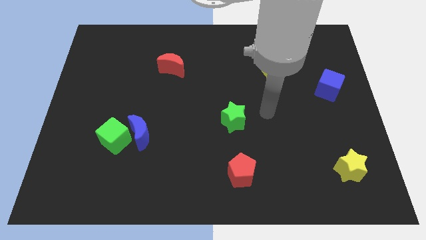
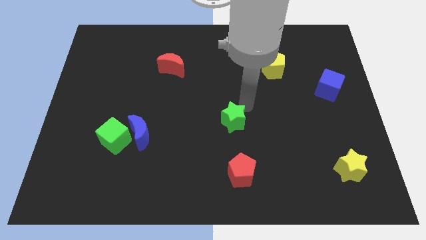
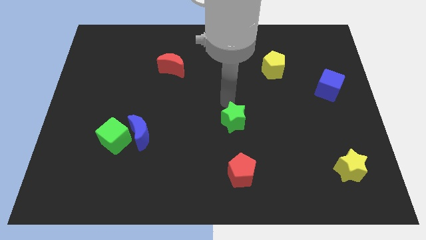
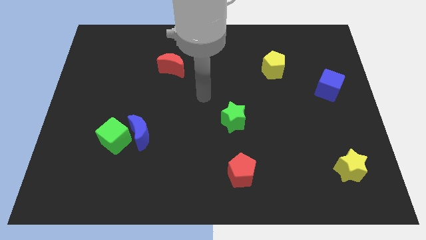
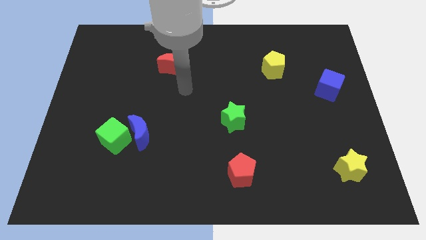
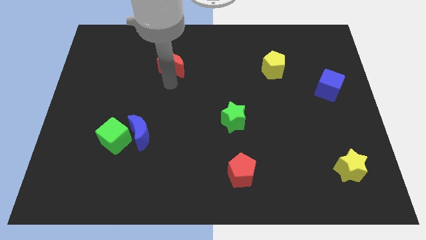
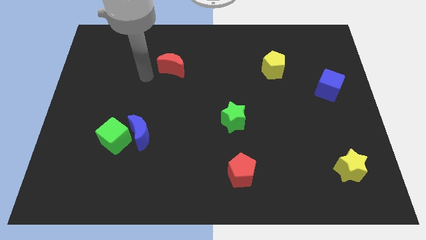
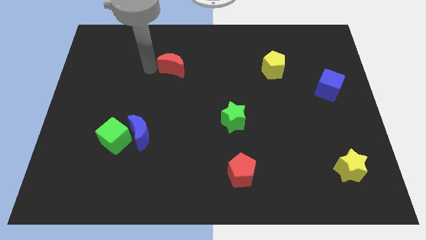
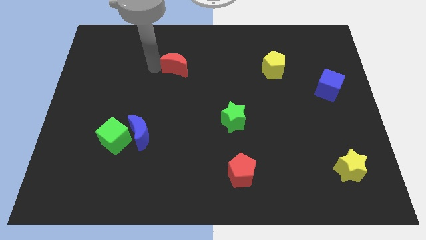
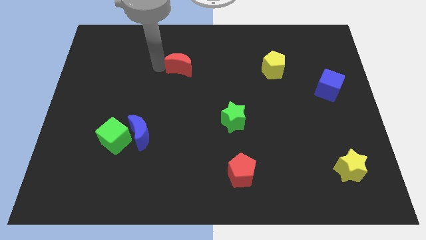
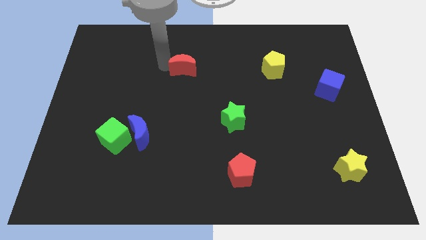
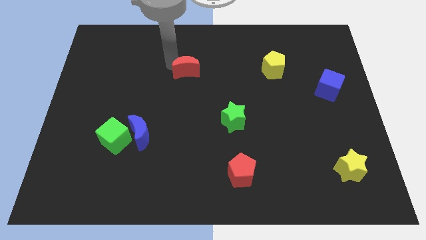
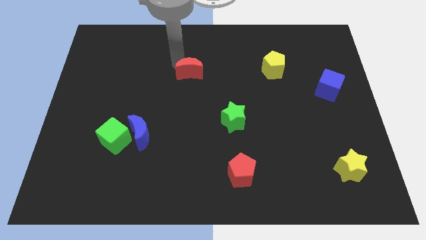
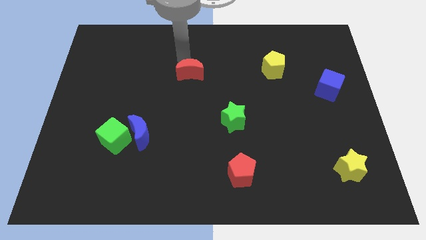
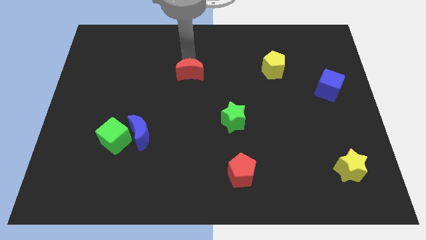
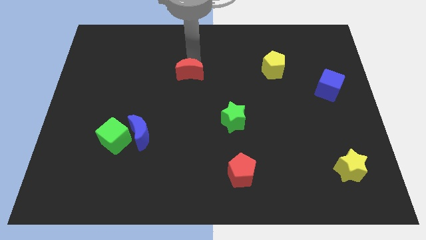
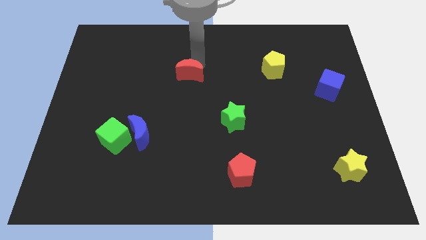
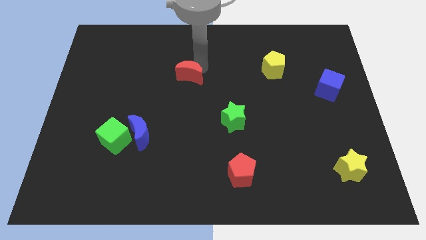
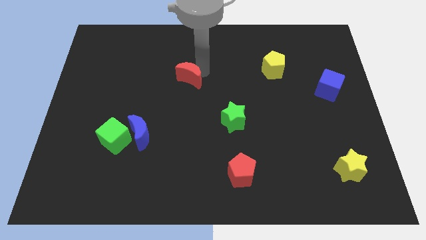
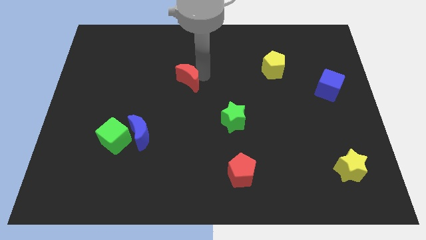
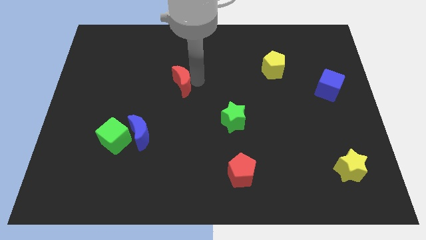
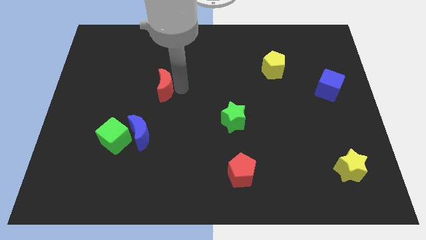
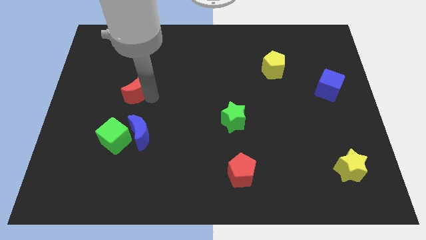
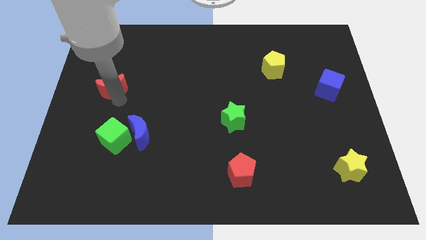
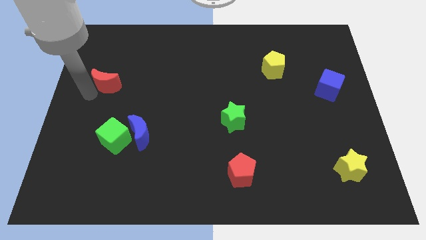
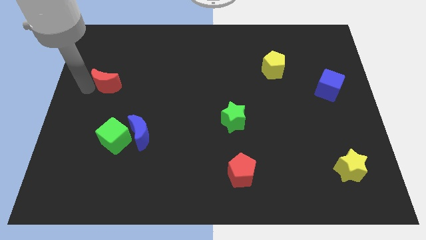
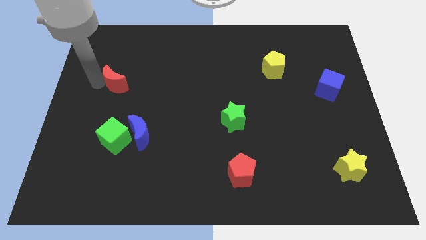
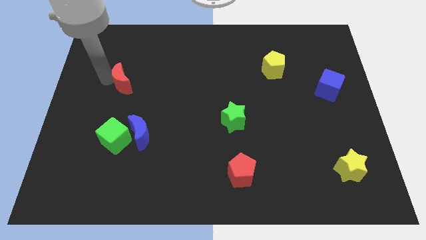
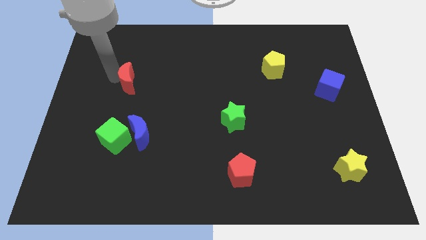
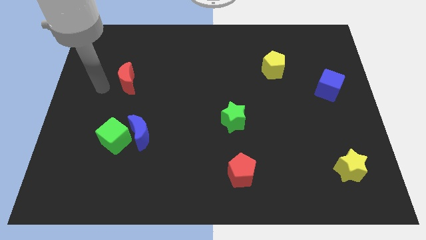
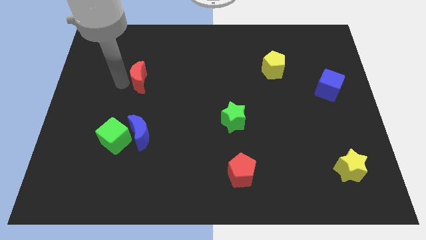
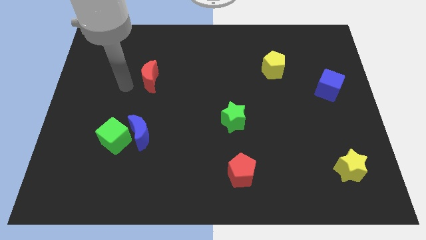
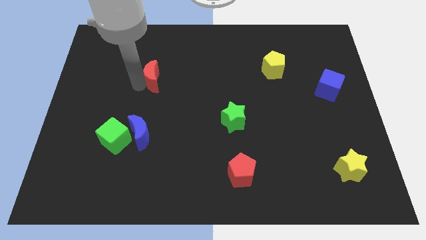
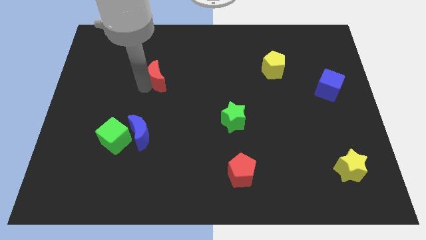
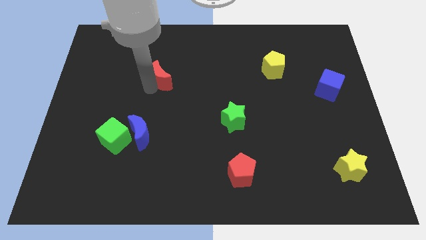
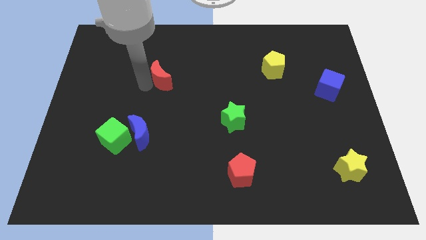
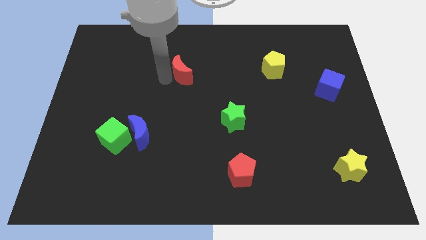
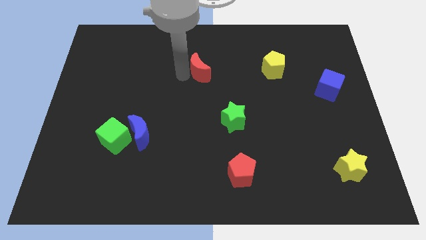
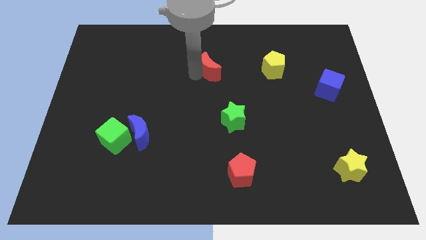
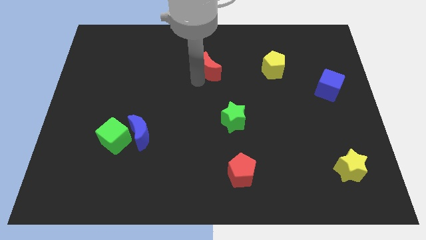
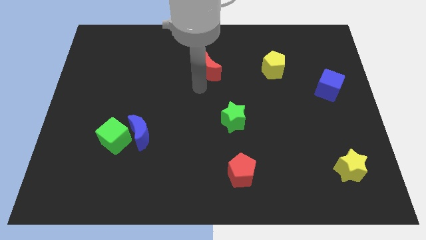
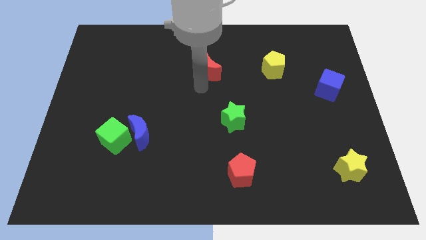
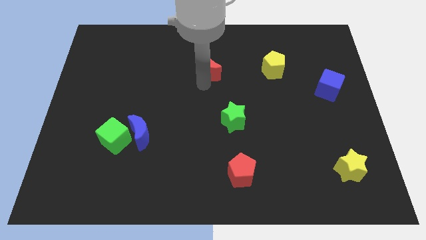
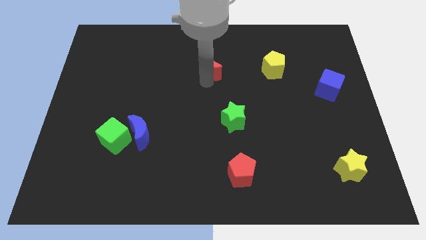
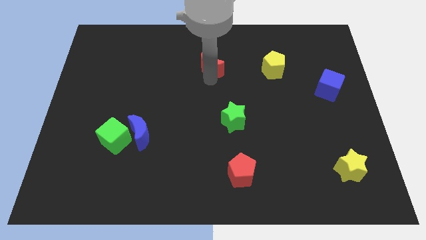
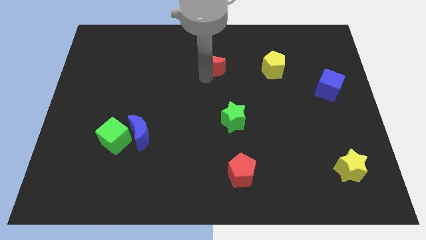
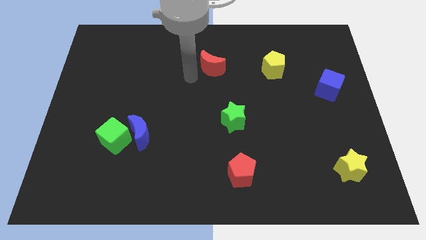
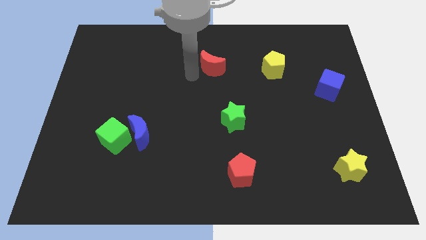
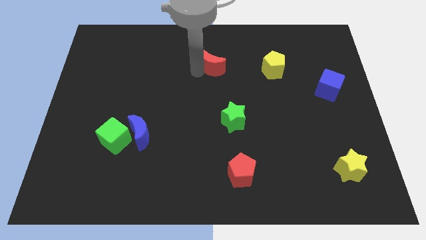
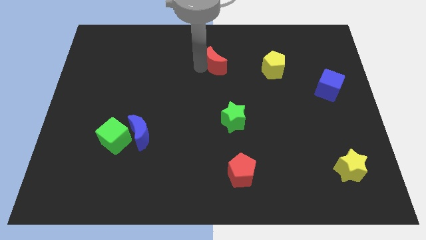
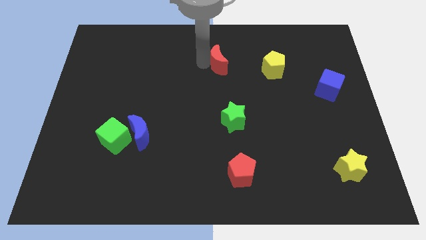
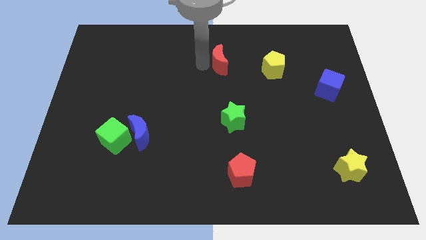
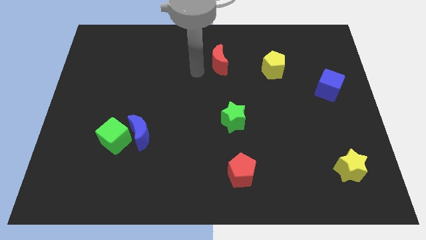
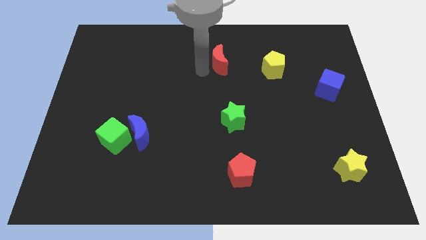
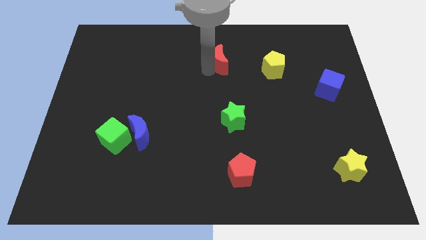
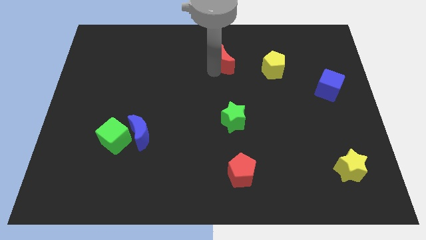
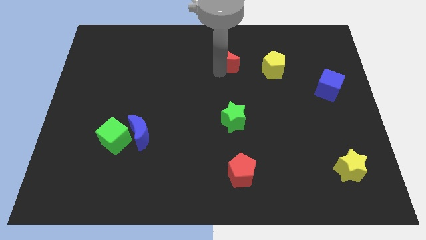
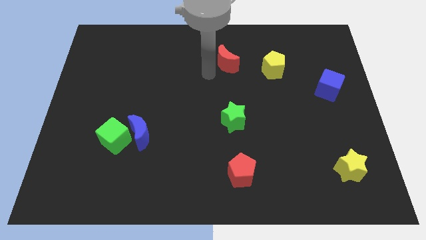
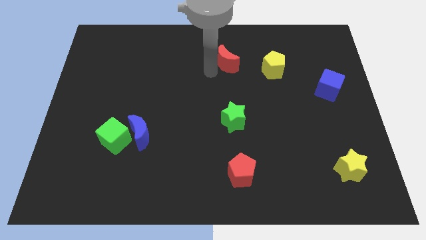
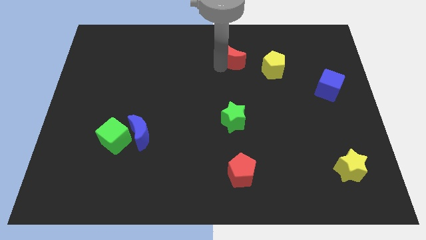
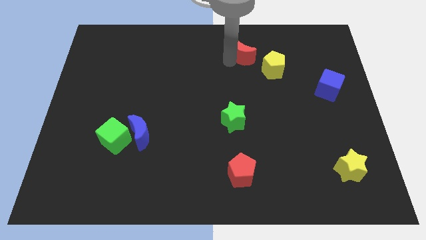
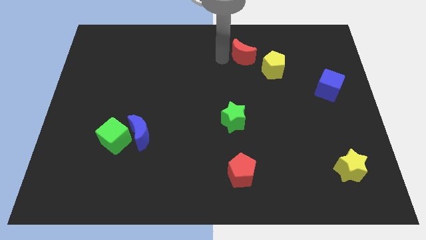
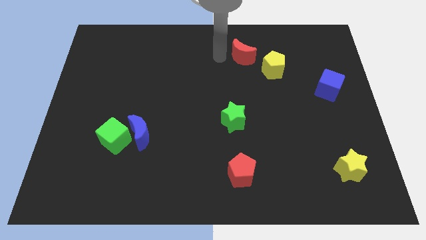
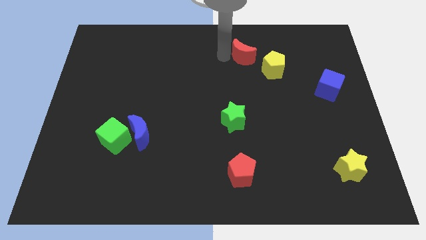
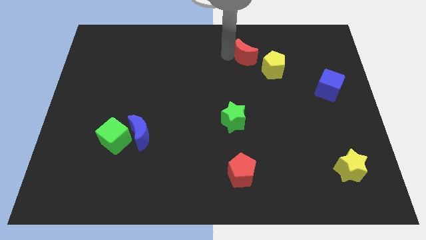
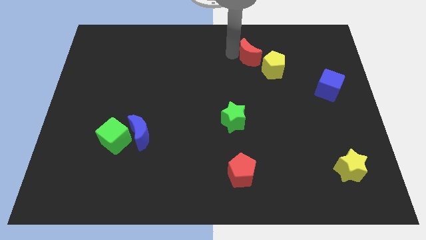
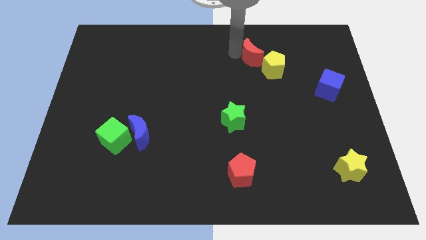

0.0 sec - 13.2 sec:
move the red moon right

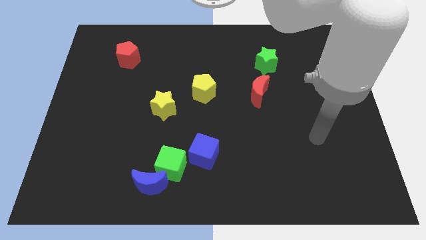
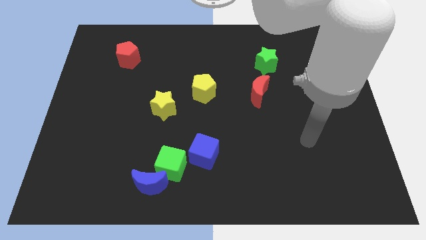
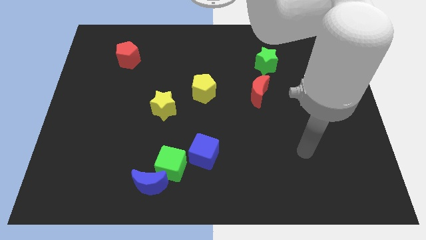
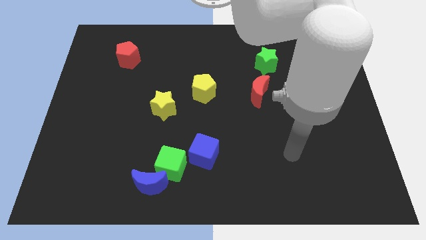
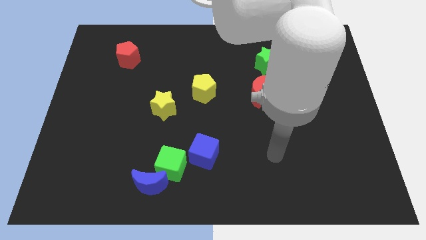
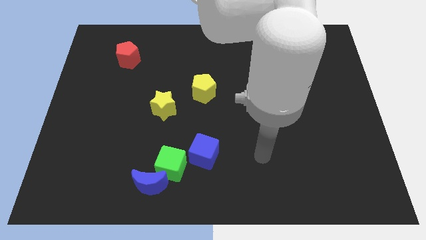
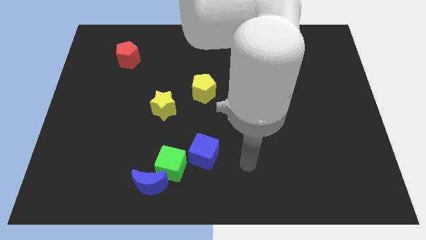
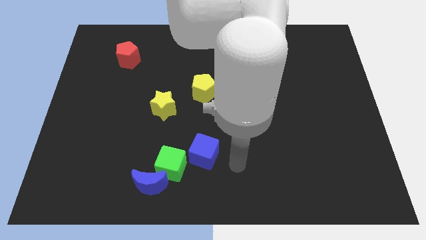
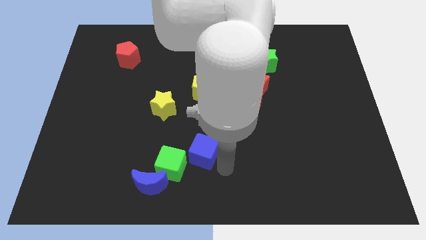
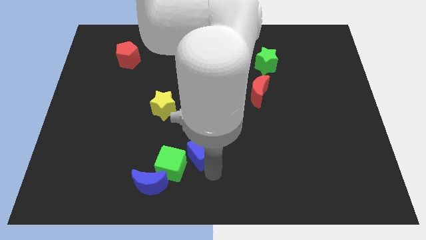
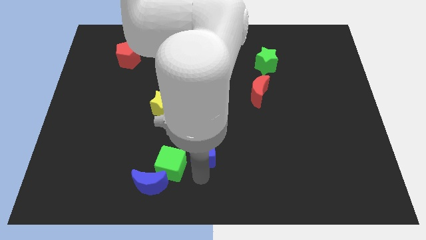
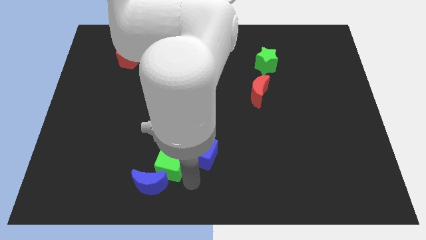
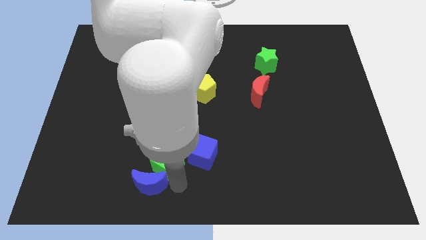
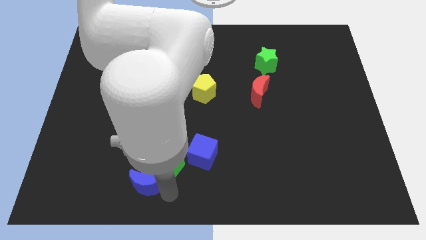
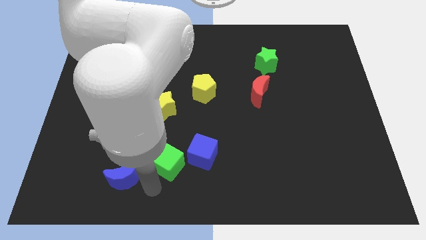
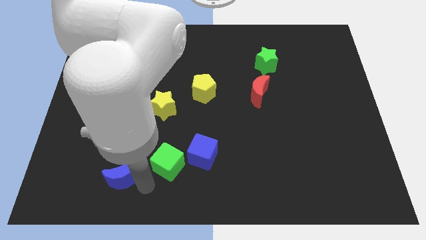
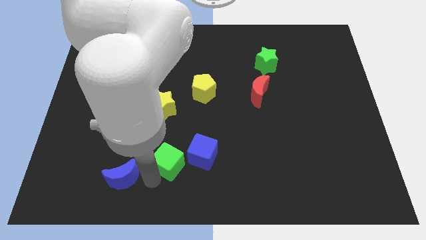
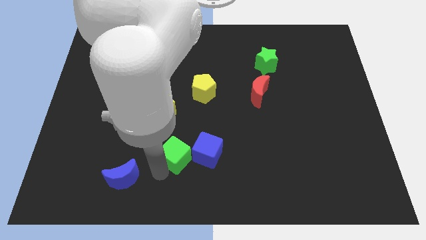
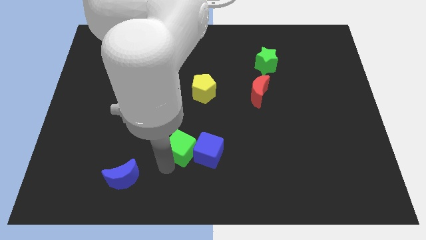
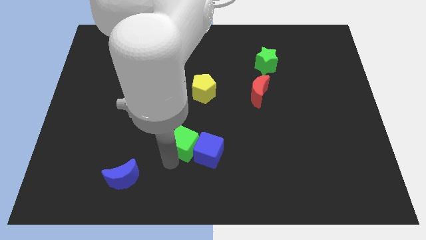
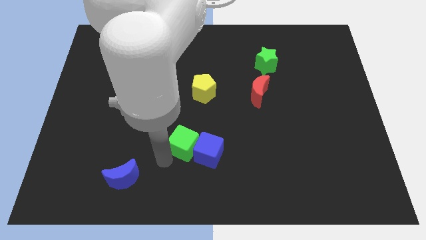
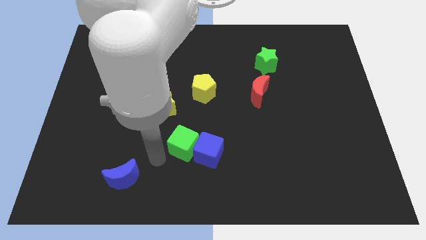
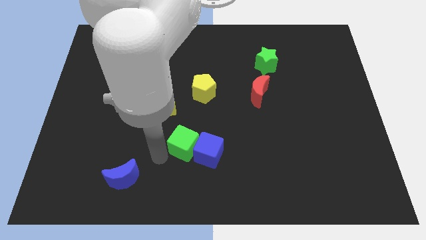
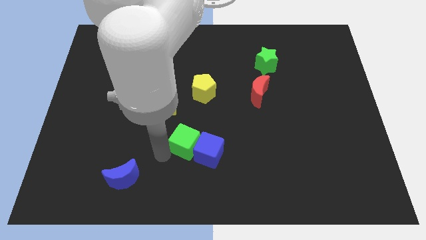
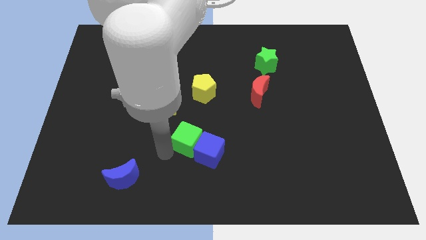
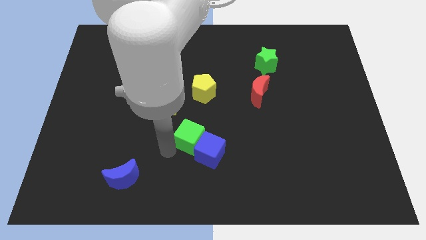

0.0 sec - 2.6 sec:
slightly slide the green cube diagonally upwards and to the right
